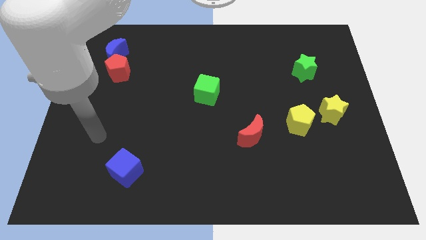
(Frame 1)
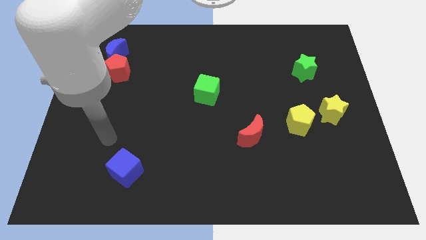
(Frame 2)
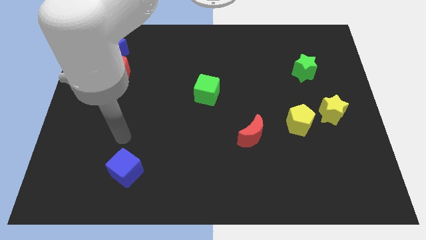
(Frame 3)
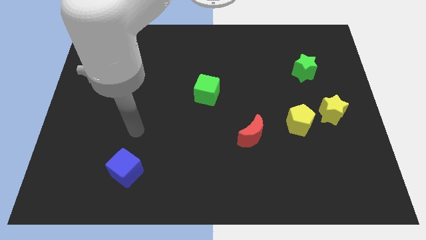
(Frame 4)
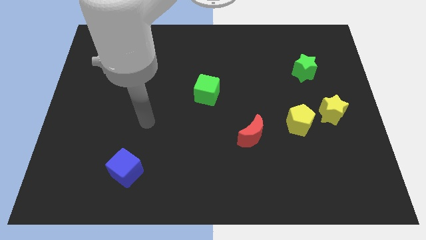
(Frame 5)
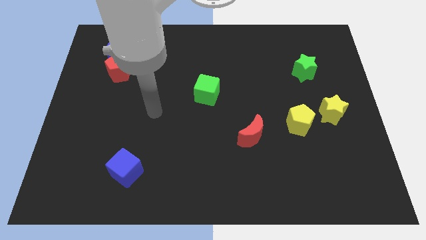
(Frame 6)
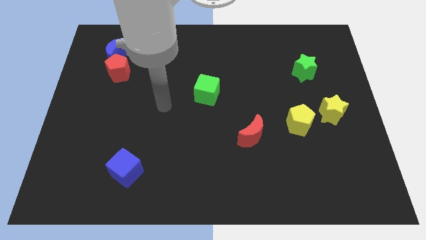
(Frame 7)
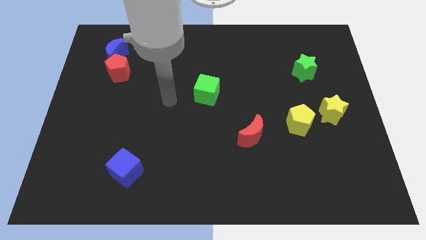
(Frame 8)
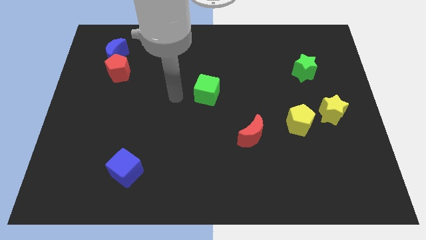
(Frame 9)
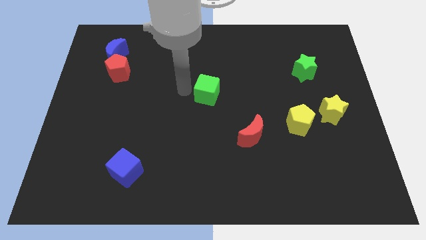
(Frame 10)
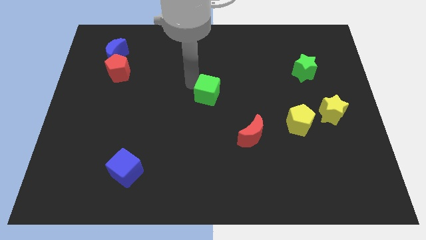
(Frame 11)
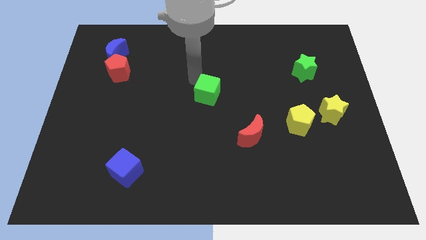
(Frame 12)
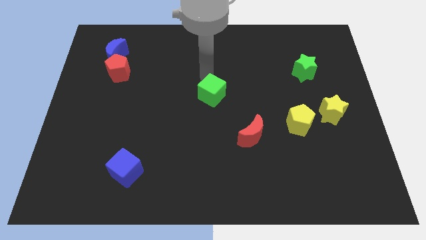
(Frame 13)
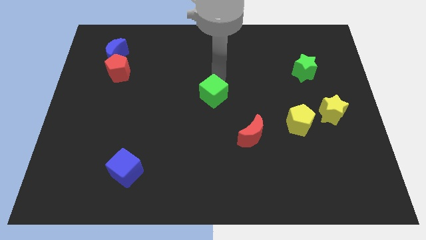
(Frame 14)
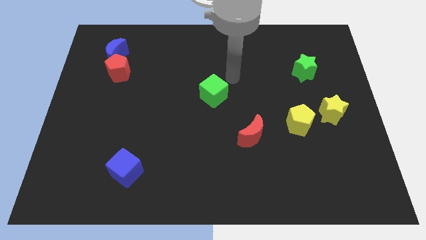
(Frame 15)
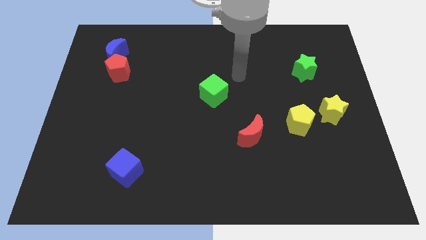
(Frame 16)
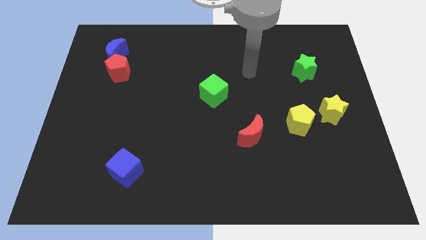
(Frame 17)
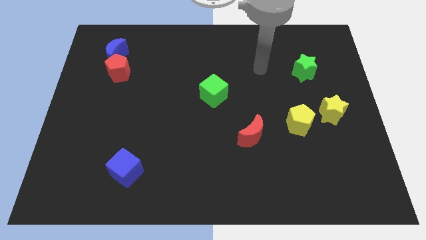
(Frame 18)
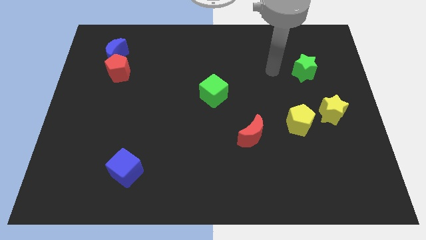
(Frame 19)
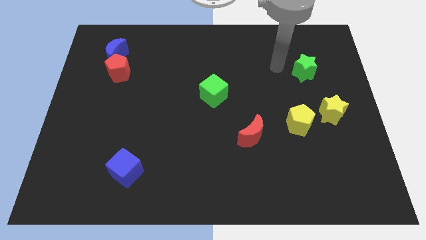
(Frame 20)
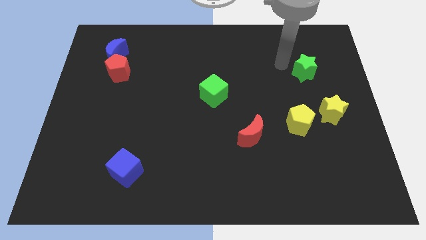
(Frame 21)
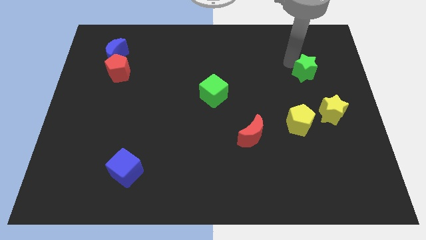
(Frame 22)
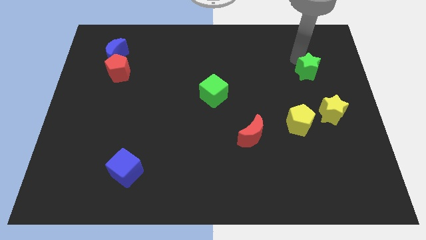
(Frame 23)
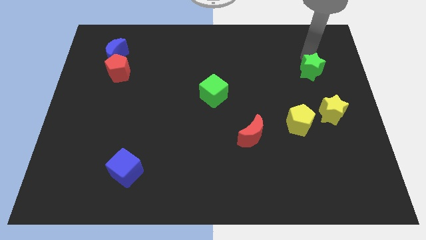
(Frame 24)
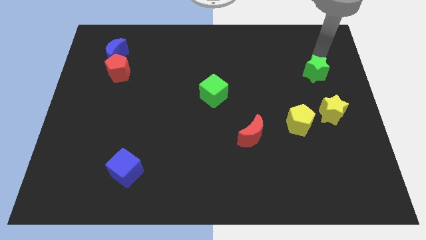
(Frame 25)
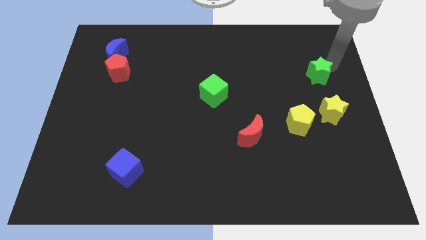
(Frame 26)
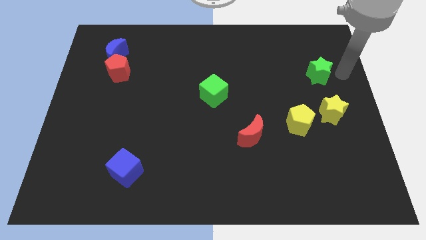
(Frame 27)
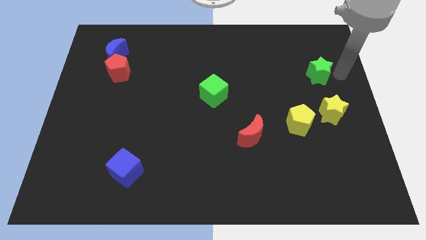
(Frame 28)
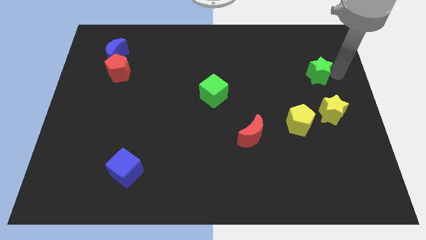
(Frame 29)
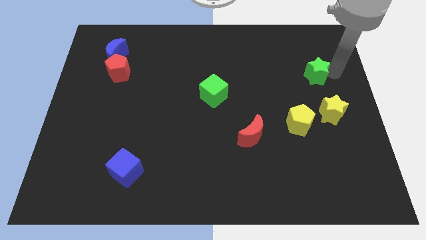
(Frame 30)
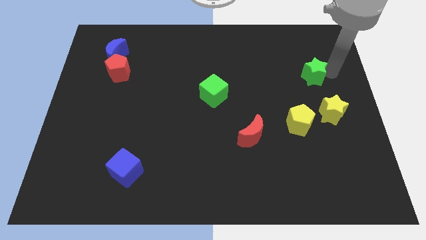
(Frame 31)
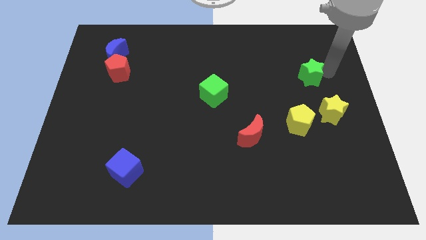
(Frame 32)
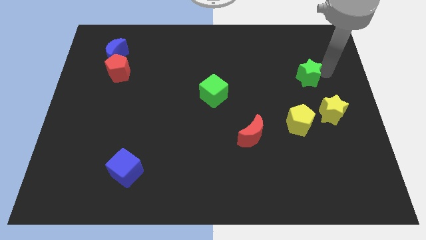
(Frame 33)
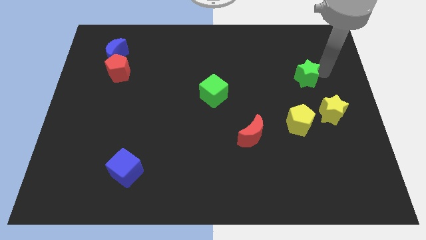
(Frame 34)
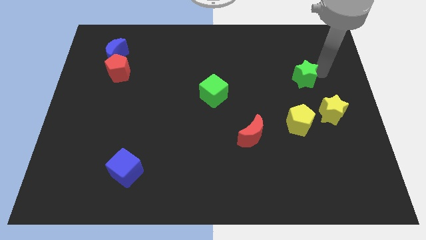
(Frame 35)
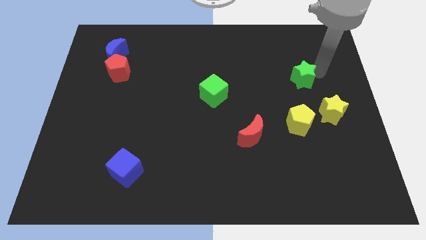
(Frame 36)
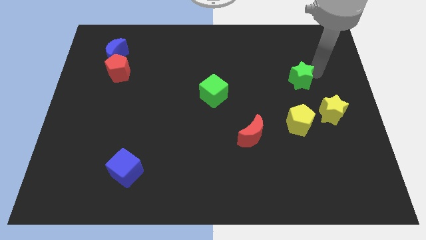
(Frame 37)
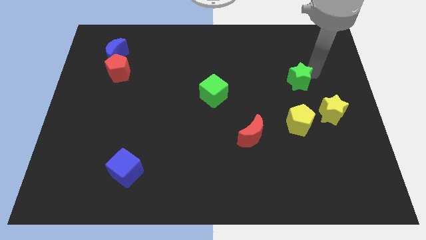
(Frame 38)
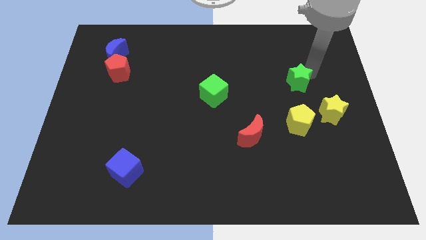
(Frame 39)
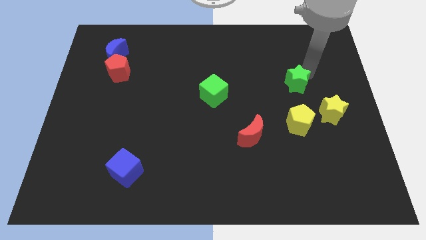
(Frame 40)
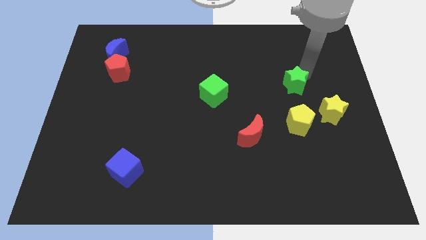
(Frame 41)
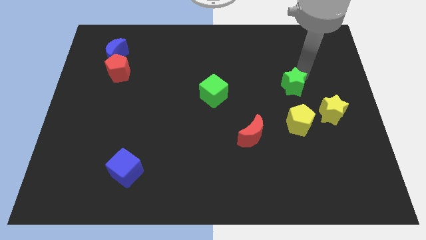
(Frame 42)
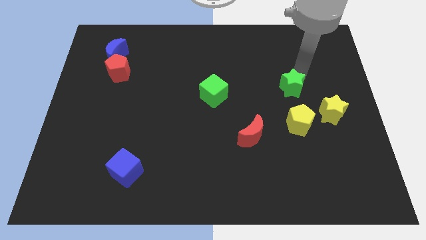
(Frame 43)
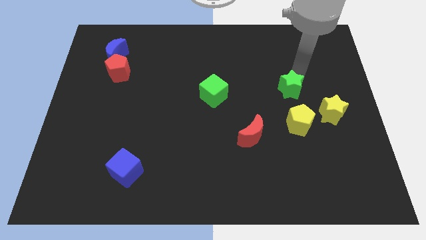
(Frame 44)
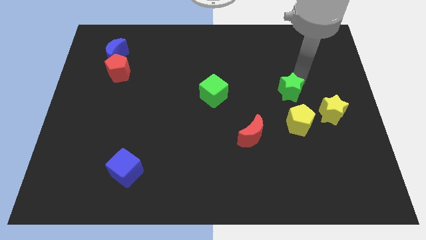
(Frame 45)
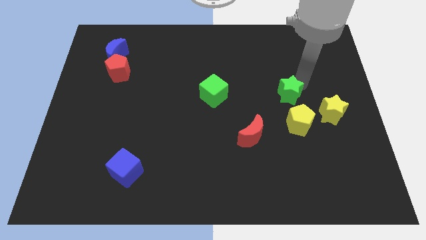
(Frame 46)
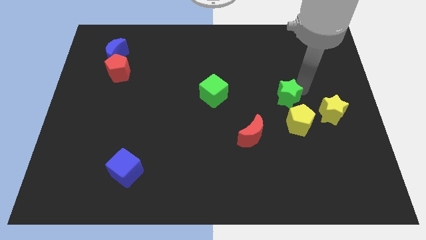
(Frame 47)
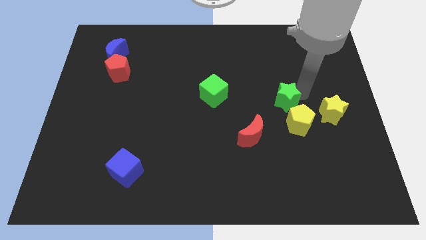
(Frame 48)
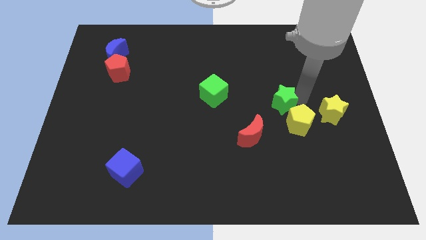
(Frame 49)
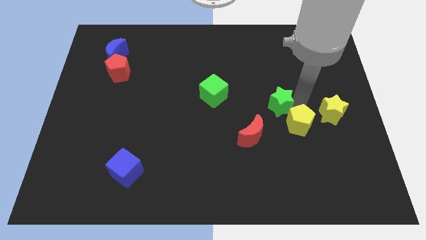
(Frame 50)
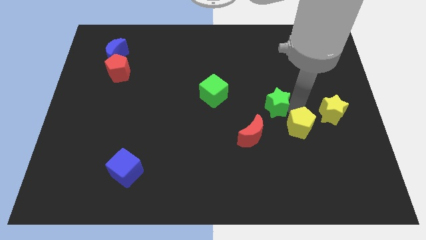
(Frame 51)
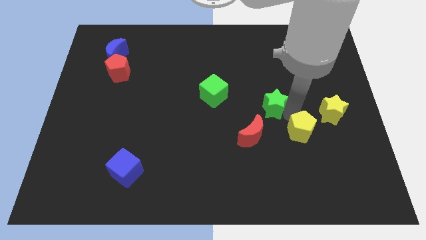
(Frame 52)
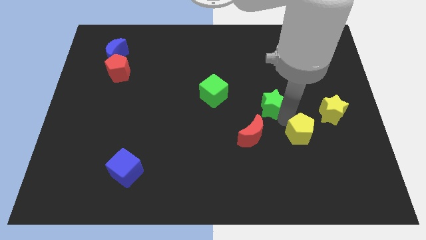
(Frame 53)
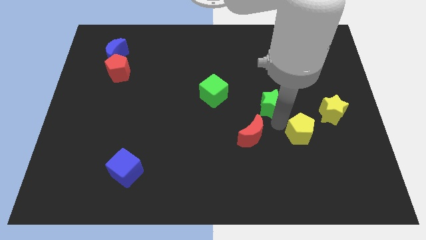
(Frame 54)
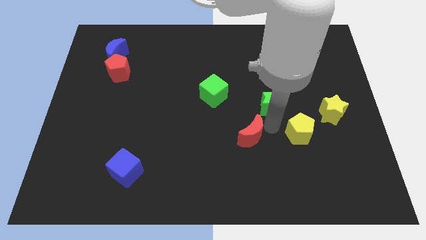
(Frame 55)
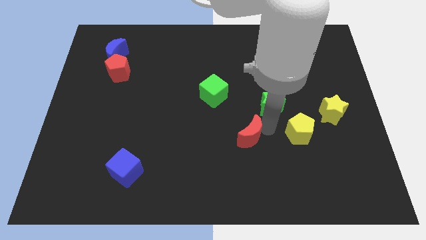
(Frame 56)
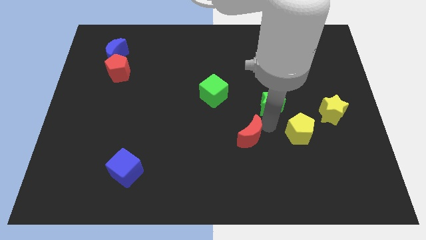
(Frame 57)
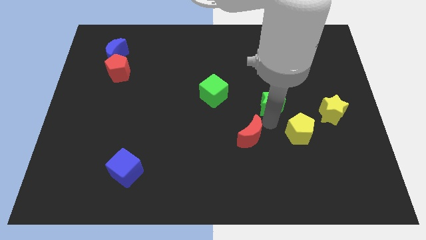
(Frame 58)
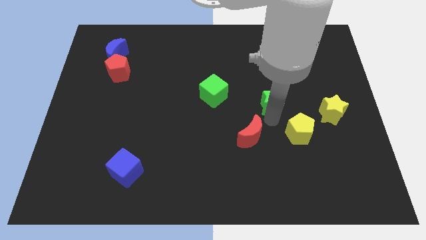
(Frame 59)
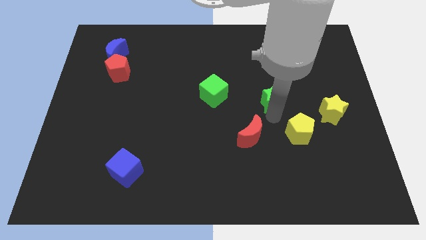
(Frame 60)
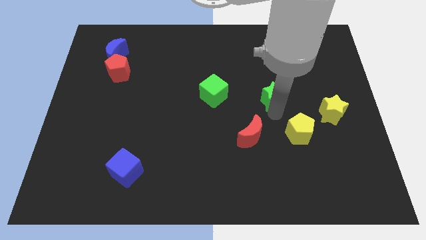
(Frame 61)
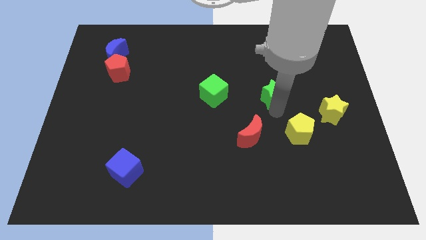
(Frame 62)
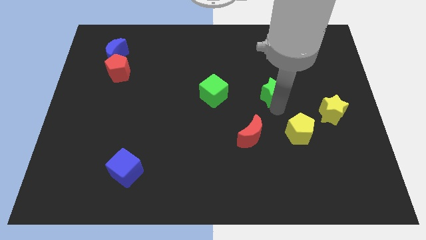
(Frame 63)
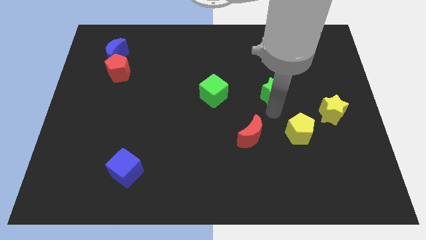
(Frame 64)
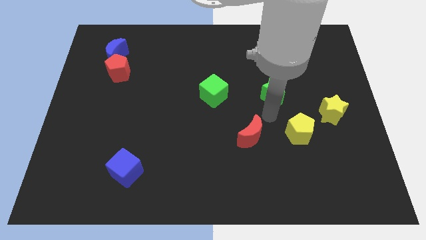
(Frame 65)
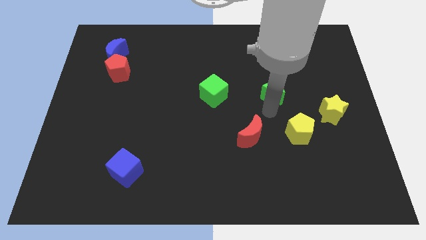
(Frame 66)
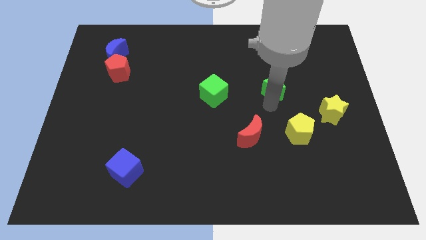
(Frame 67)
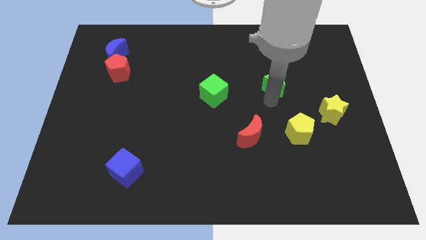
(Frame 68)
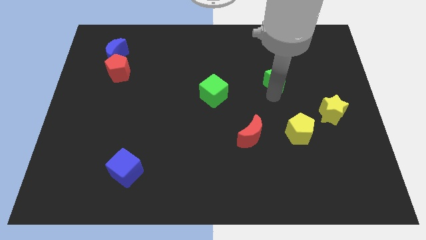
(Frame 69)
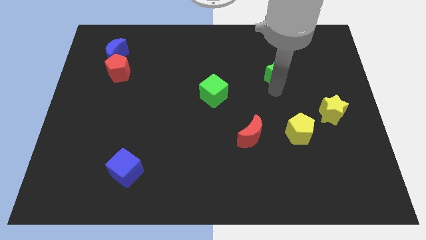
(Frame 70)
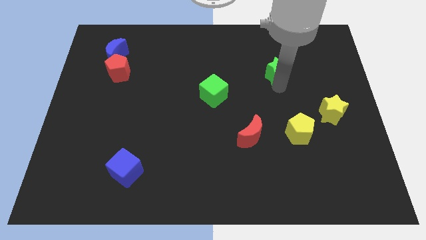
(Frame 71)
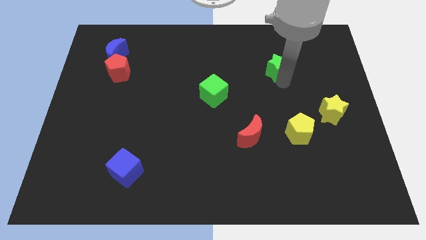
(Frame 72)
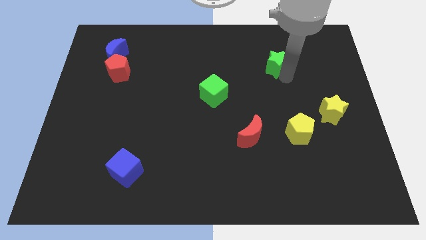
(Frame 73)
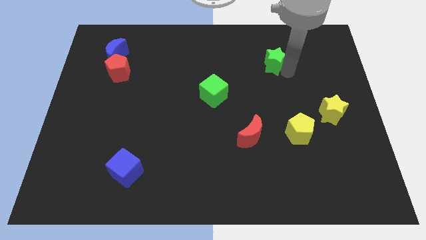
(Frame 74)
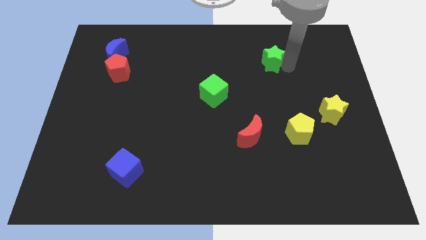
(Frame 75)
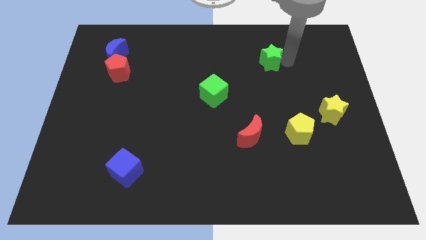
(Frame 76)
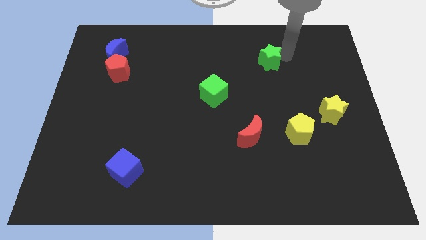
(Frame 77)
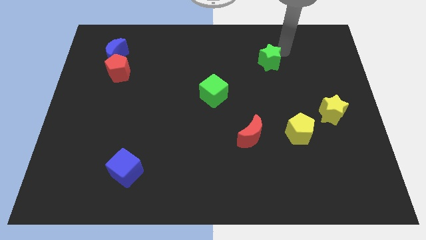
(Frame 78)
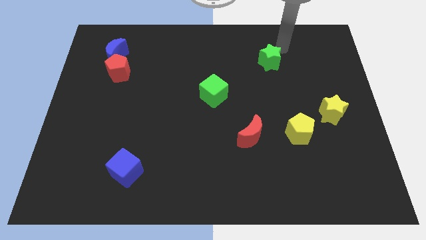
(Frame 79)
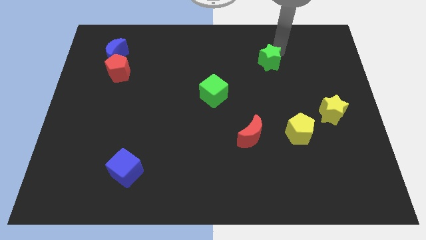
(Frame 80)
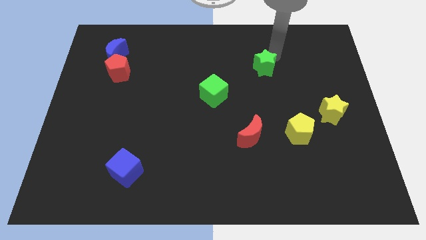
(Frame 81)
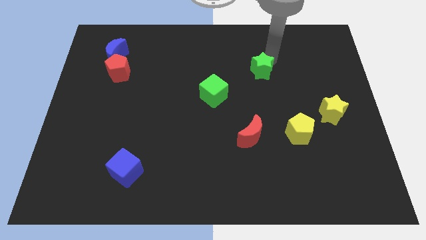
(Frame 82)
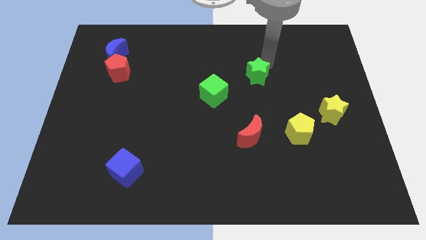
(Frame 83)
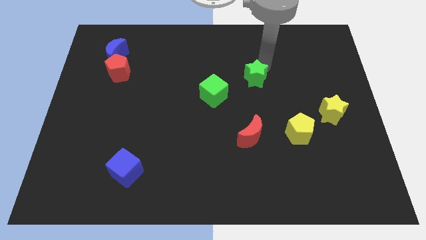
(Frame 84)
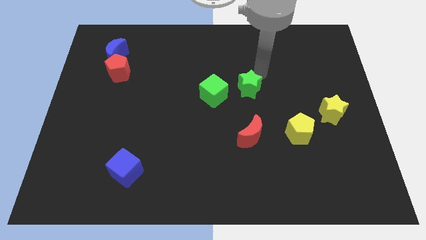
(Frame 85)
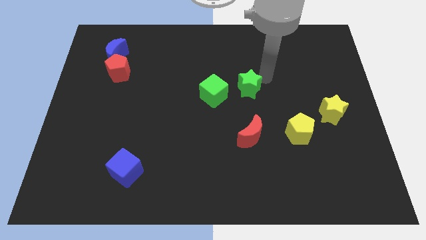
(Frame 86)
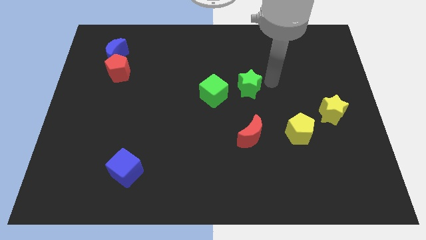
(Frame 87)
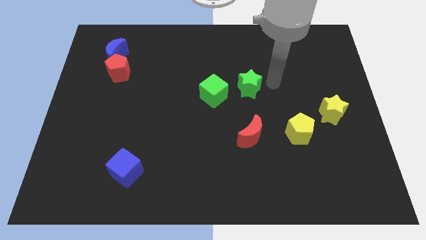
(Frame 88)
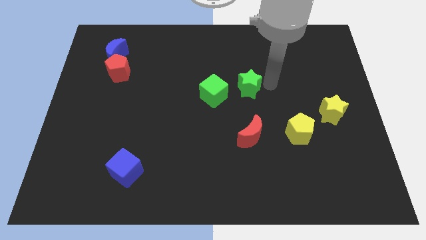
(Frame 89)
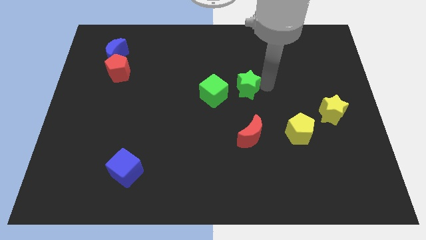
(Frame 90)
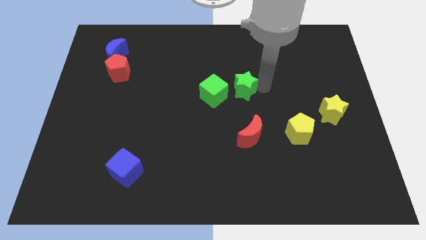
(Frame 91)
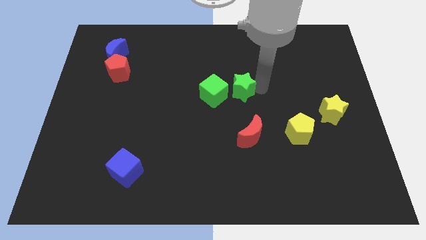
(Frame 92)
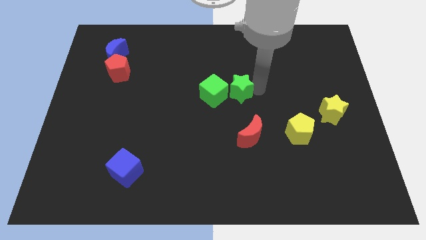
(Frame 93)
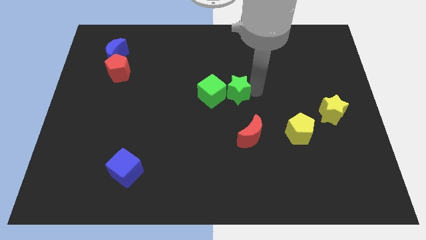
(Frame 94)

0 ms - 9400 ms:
push the green star towards the green cube
